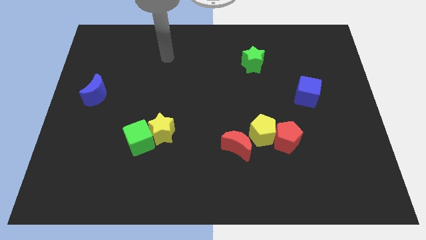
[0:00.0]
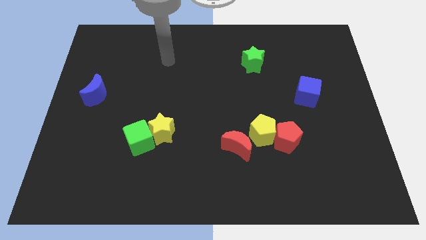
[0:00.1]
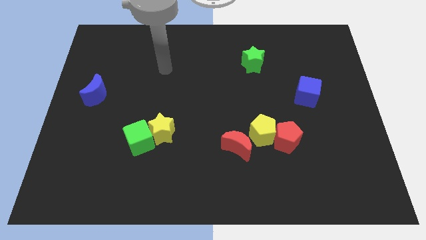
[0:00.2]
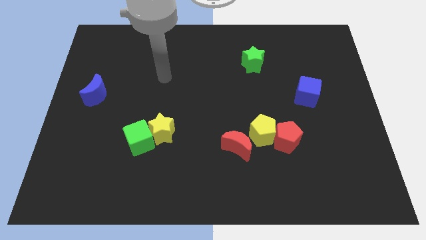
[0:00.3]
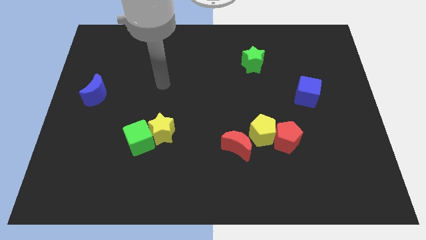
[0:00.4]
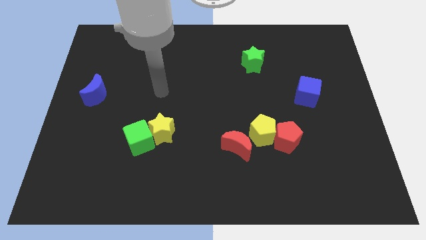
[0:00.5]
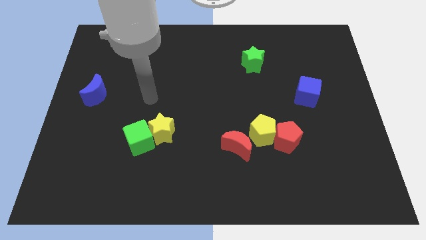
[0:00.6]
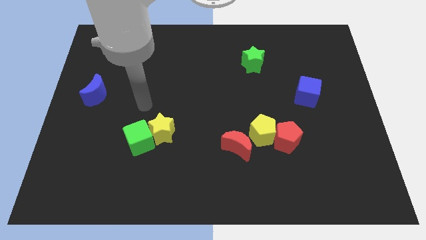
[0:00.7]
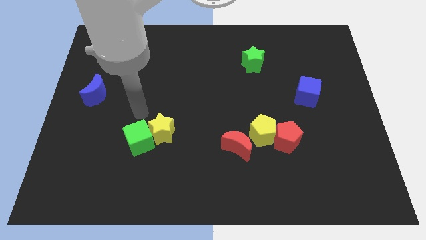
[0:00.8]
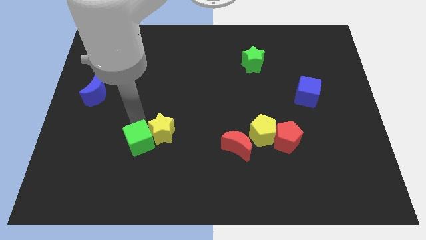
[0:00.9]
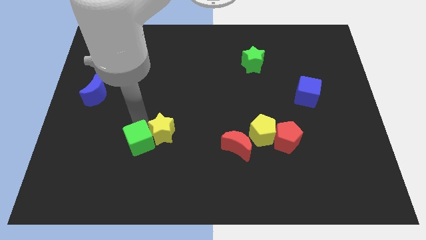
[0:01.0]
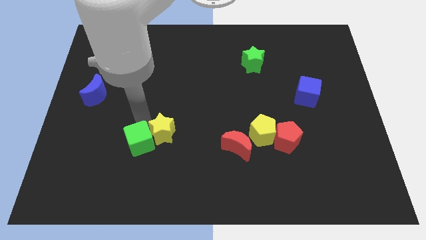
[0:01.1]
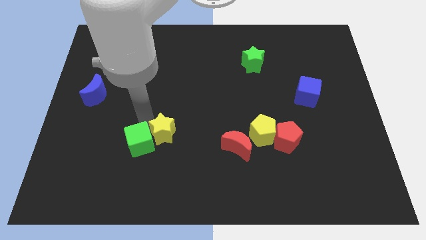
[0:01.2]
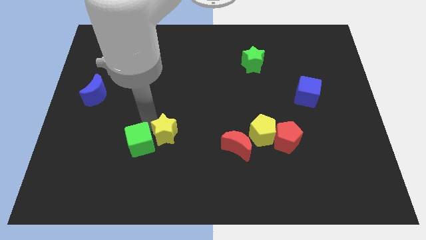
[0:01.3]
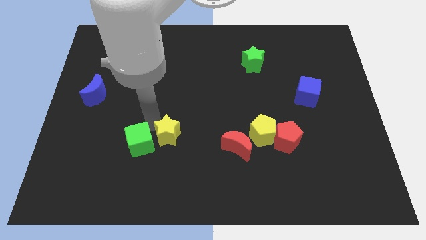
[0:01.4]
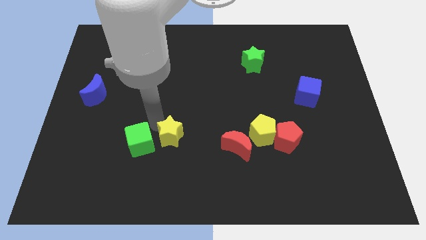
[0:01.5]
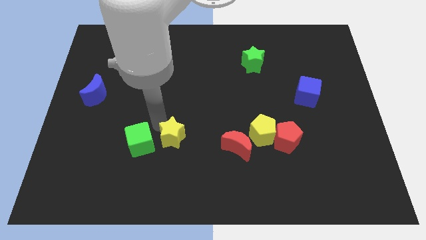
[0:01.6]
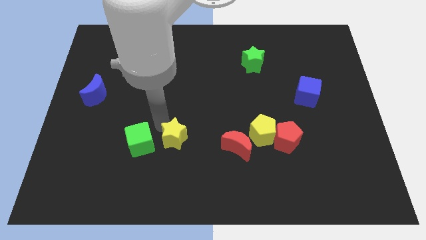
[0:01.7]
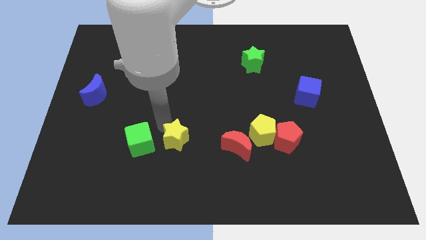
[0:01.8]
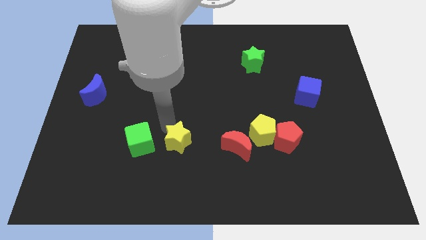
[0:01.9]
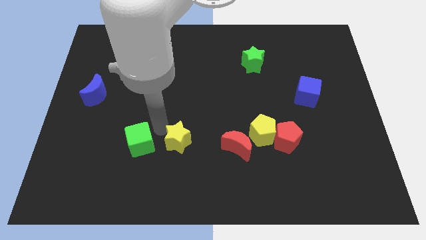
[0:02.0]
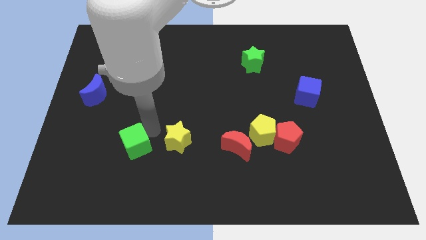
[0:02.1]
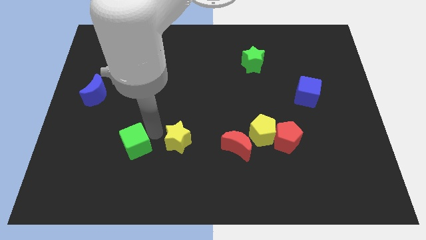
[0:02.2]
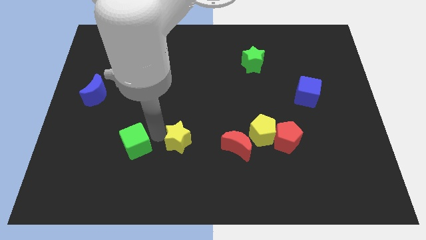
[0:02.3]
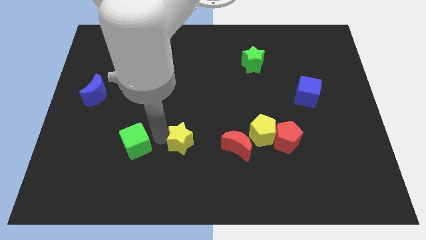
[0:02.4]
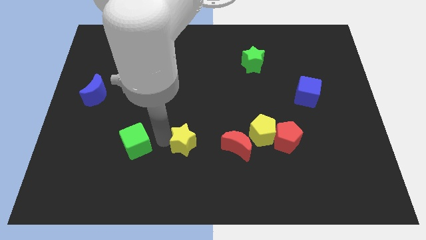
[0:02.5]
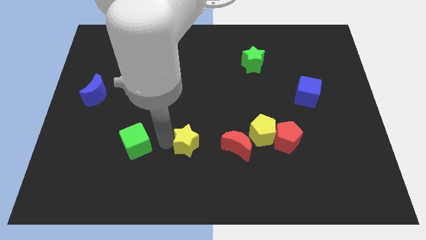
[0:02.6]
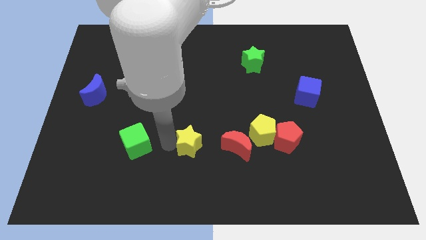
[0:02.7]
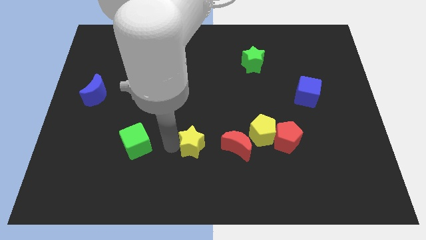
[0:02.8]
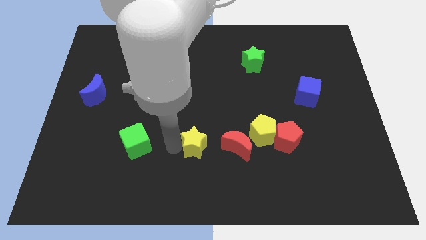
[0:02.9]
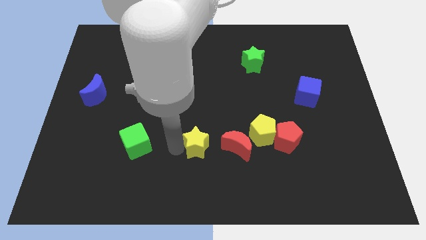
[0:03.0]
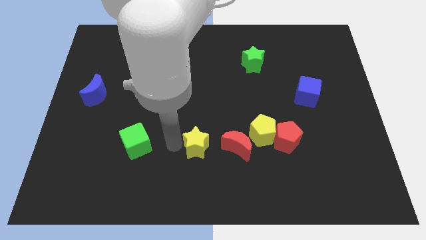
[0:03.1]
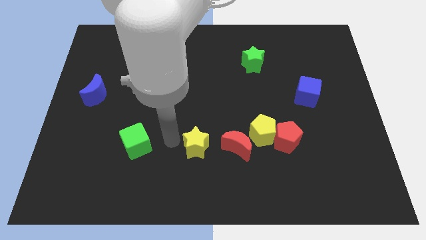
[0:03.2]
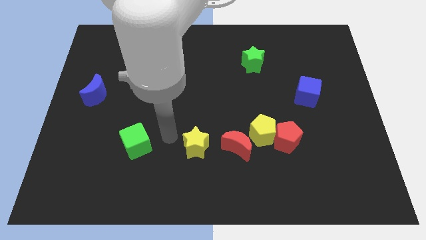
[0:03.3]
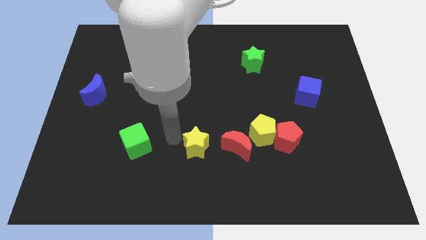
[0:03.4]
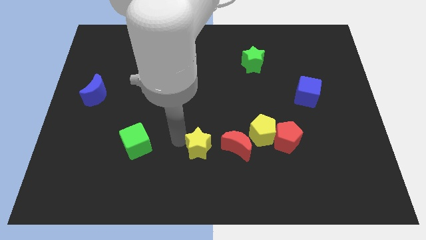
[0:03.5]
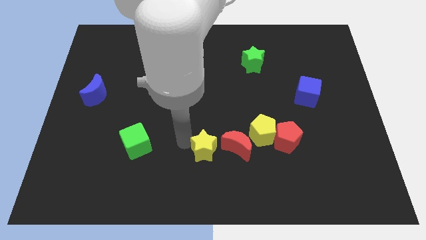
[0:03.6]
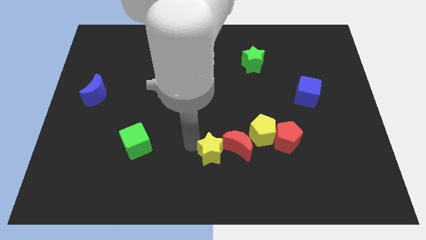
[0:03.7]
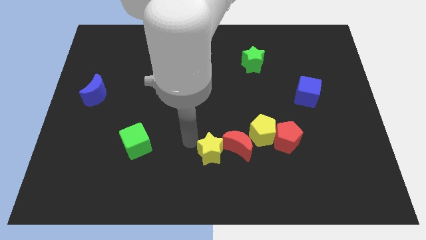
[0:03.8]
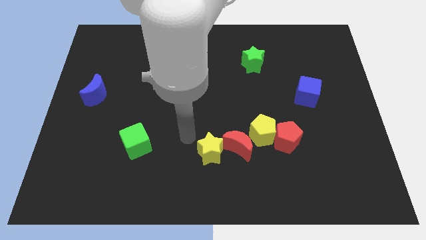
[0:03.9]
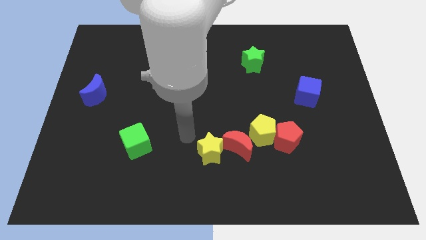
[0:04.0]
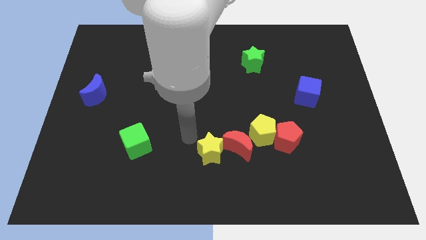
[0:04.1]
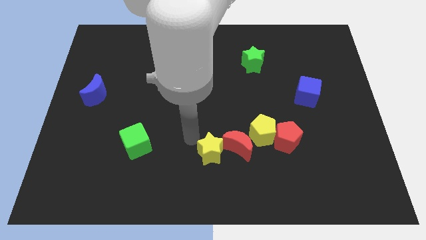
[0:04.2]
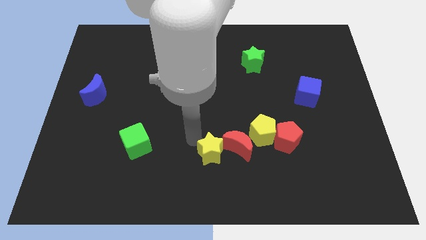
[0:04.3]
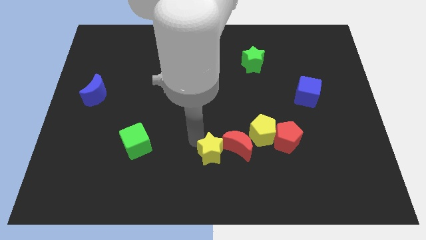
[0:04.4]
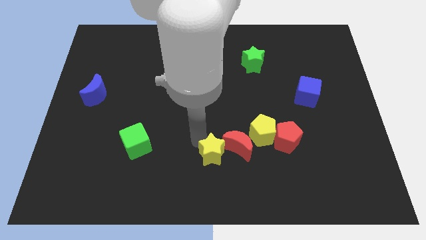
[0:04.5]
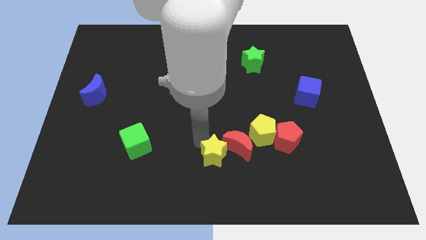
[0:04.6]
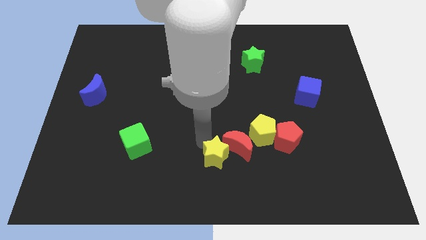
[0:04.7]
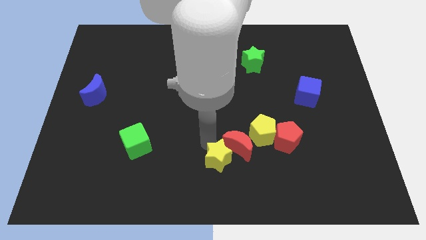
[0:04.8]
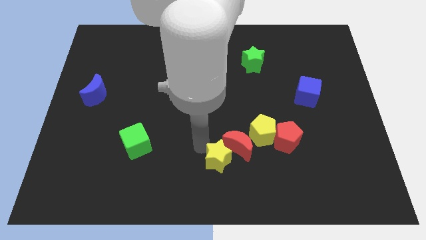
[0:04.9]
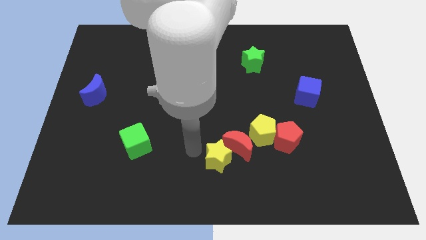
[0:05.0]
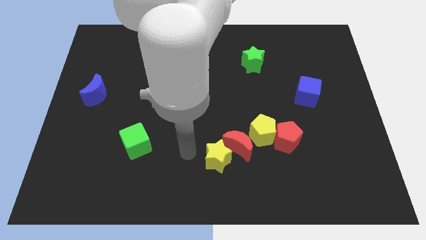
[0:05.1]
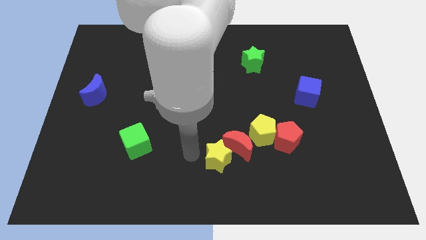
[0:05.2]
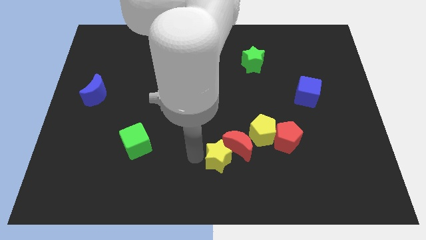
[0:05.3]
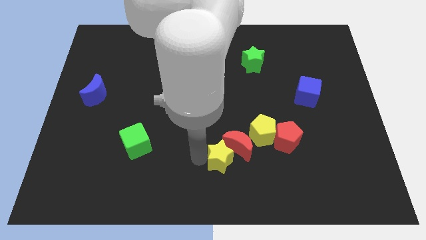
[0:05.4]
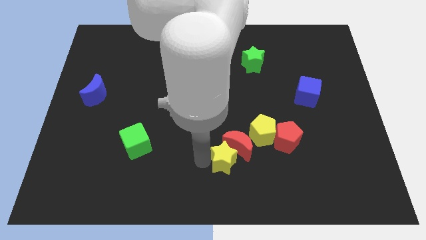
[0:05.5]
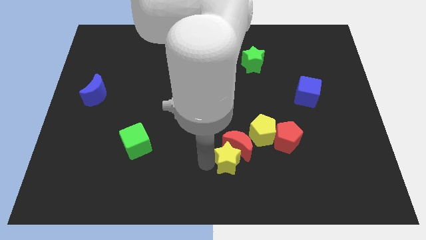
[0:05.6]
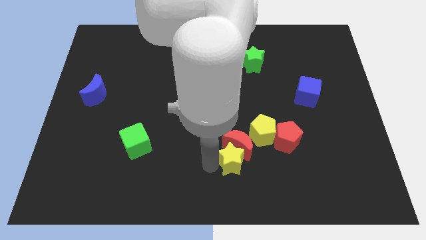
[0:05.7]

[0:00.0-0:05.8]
slide the yellow star to the bottom right side of the red moon

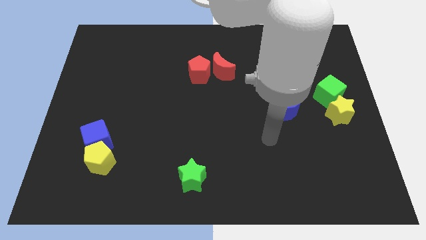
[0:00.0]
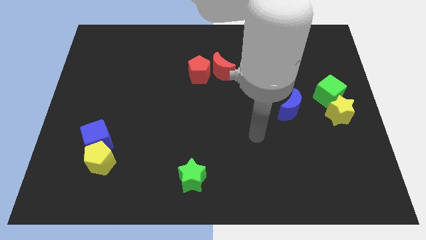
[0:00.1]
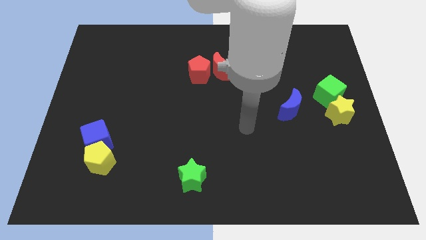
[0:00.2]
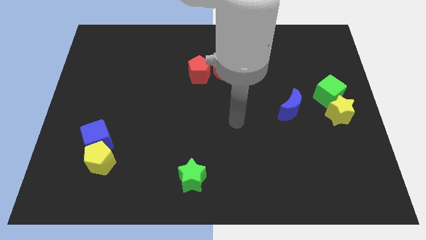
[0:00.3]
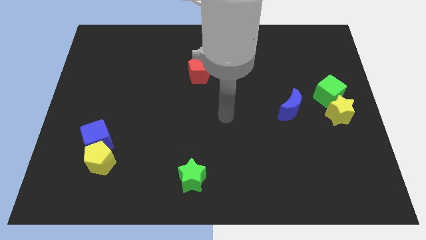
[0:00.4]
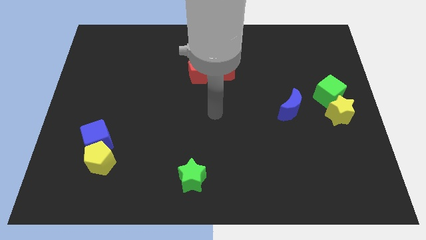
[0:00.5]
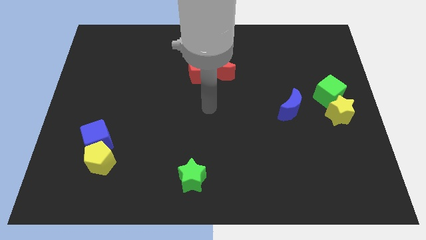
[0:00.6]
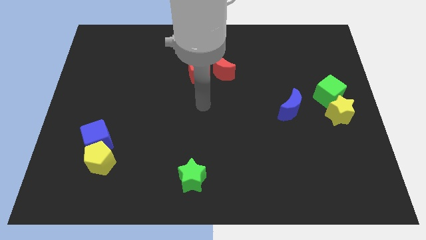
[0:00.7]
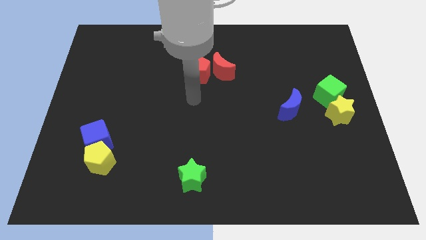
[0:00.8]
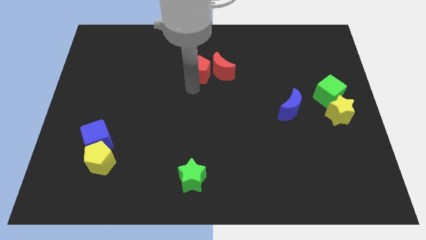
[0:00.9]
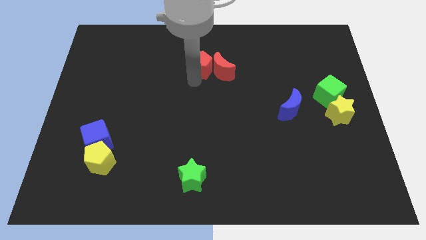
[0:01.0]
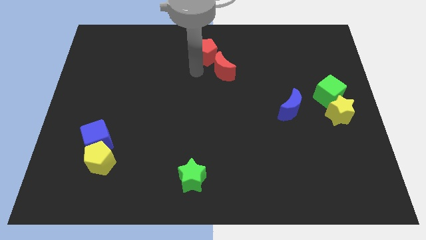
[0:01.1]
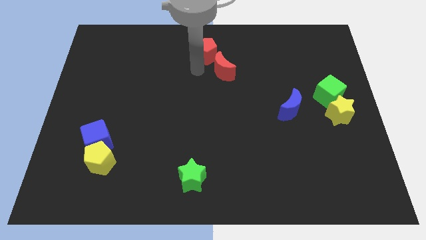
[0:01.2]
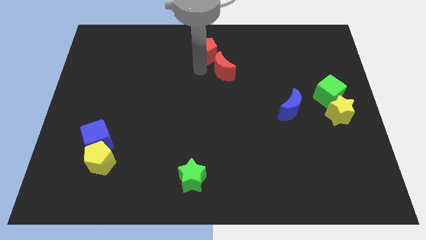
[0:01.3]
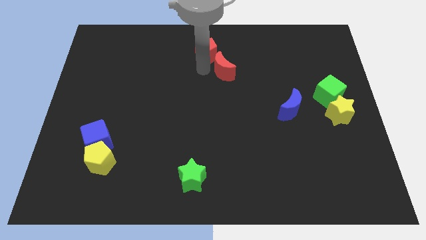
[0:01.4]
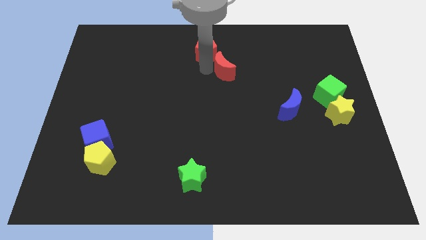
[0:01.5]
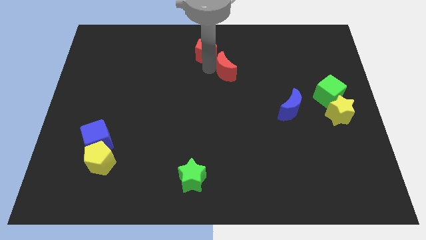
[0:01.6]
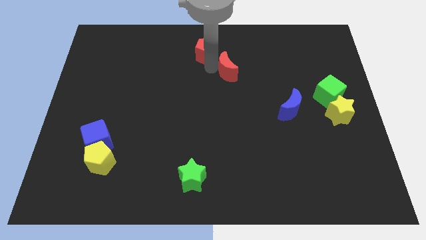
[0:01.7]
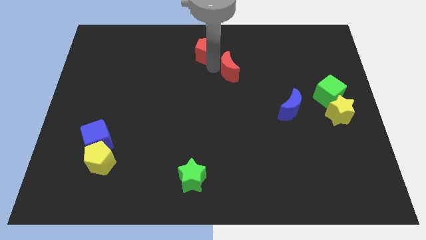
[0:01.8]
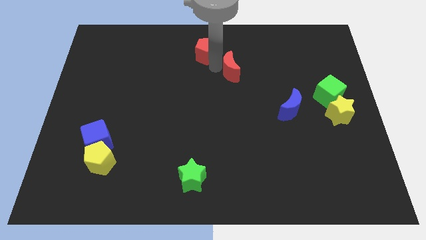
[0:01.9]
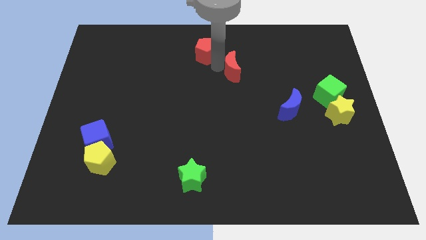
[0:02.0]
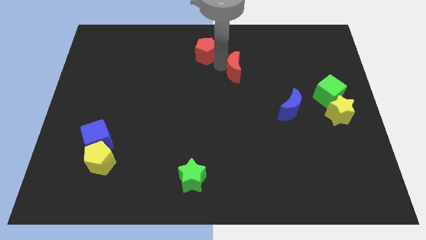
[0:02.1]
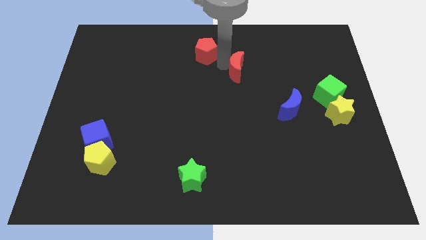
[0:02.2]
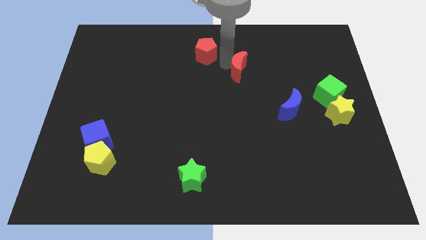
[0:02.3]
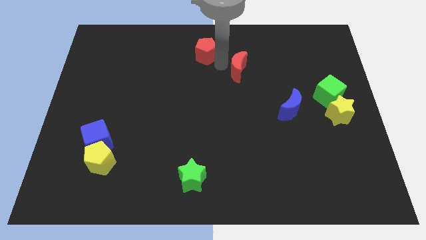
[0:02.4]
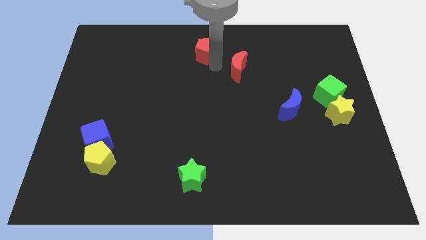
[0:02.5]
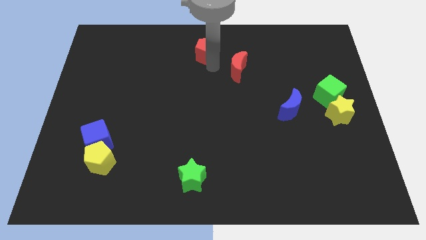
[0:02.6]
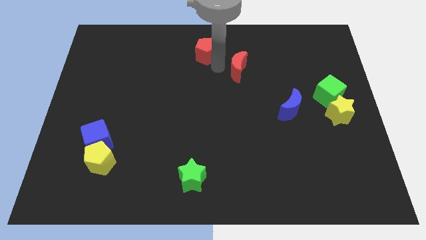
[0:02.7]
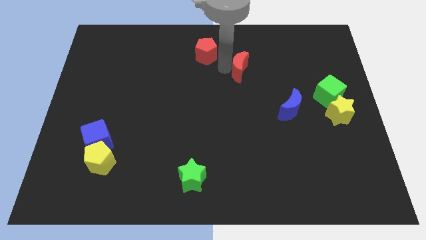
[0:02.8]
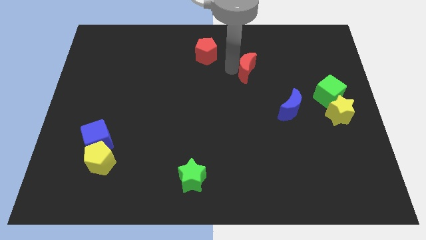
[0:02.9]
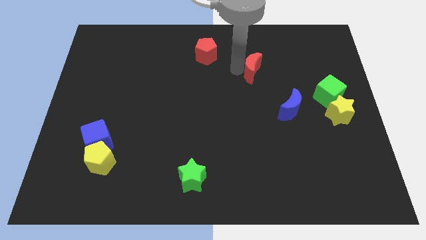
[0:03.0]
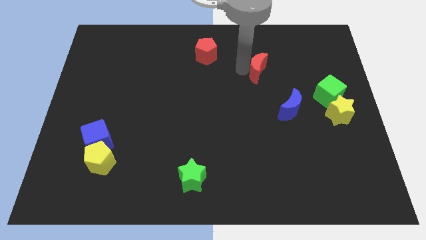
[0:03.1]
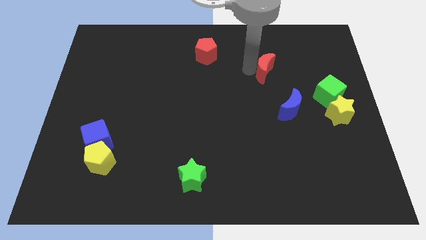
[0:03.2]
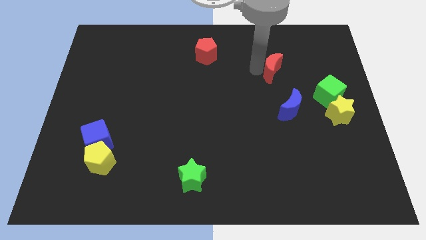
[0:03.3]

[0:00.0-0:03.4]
push the red moon to the top of the blue moon
